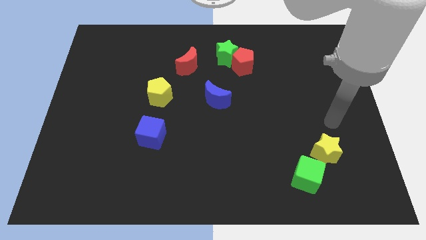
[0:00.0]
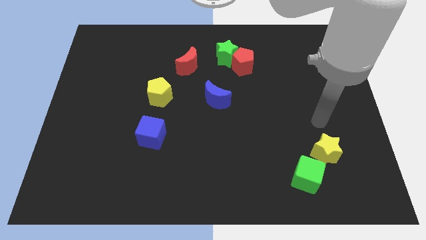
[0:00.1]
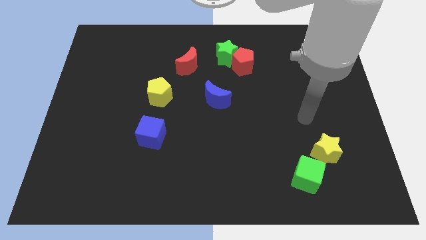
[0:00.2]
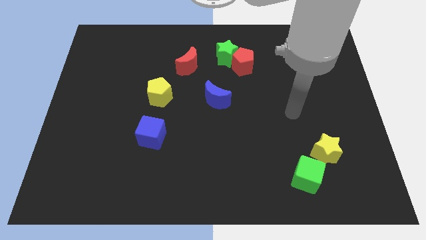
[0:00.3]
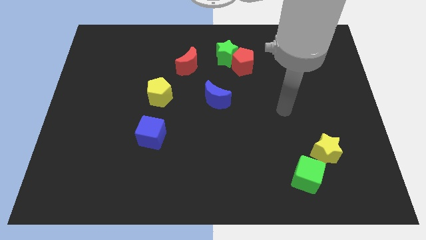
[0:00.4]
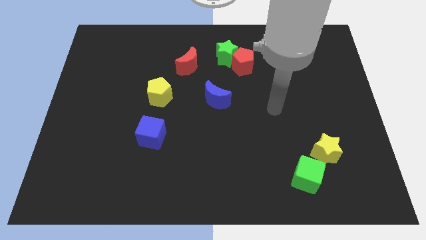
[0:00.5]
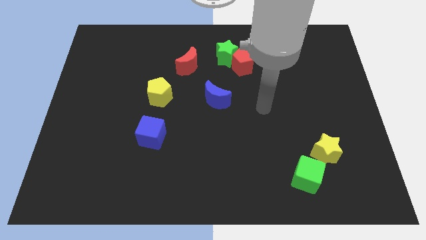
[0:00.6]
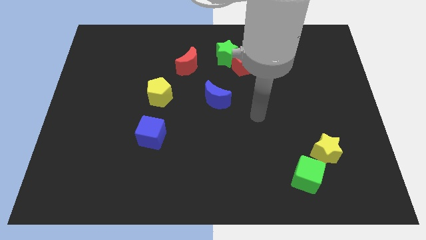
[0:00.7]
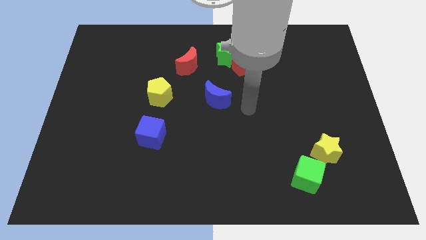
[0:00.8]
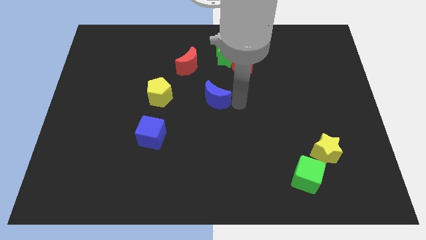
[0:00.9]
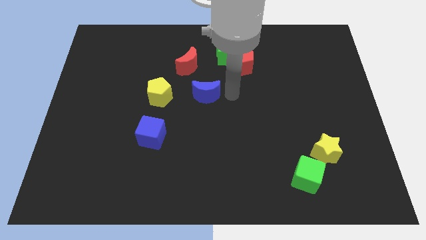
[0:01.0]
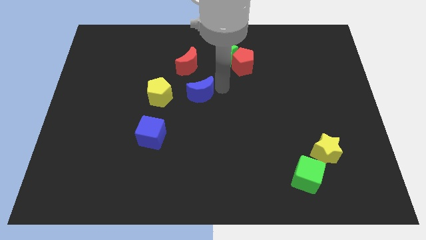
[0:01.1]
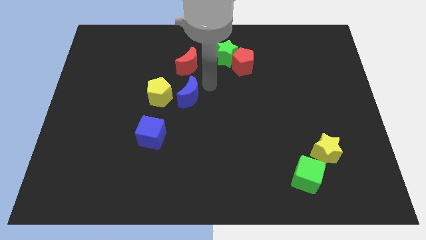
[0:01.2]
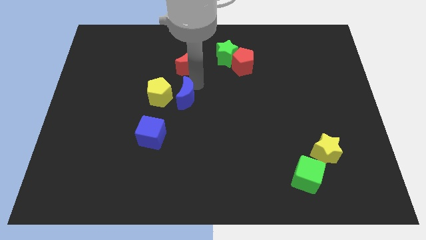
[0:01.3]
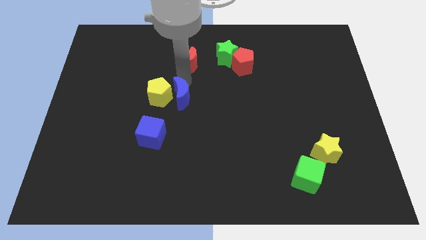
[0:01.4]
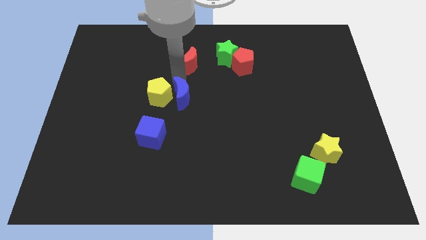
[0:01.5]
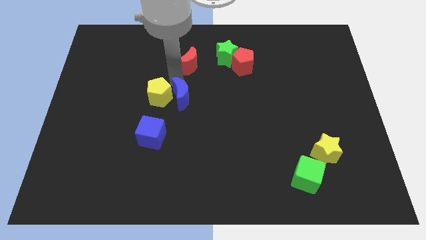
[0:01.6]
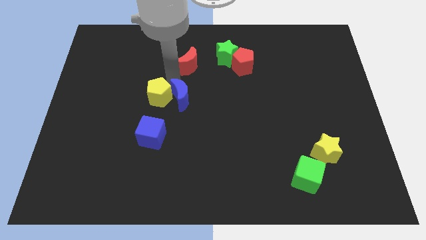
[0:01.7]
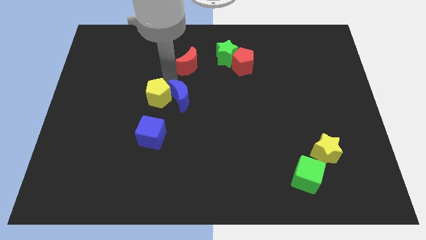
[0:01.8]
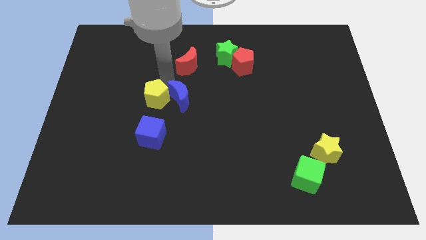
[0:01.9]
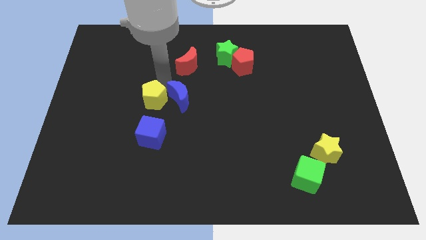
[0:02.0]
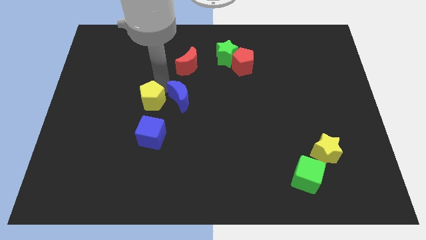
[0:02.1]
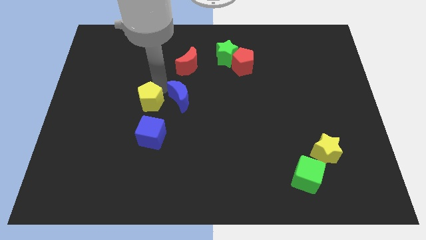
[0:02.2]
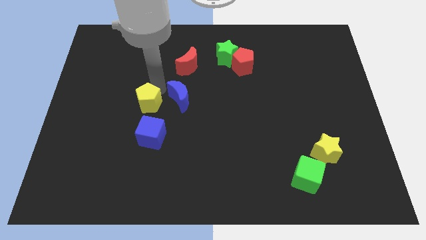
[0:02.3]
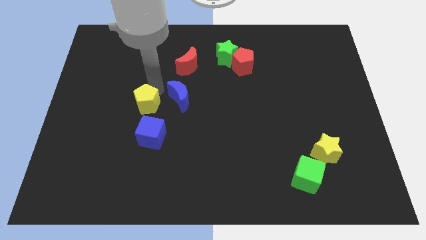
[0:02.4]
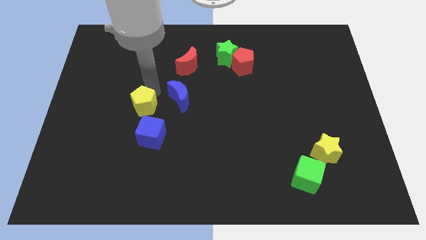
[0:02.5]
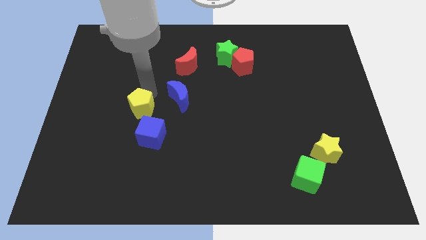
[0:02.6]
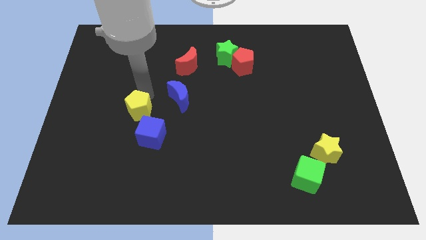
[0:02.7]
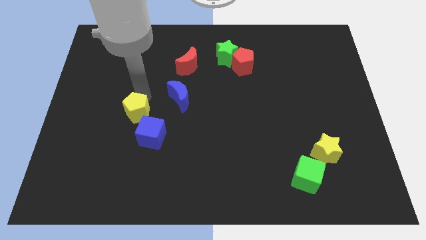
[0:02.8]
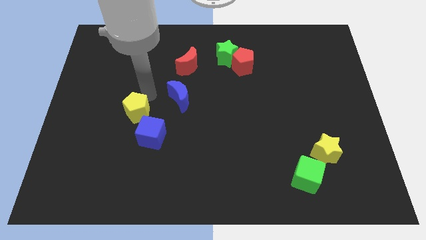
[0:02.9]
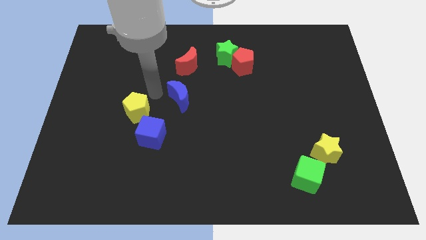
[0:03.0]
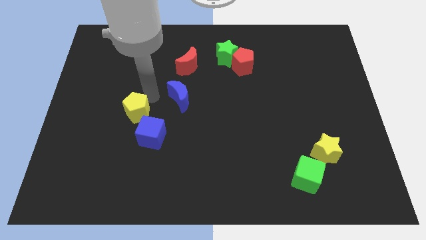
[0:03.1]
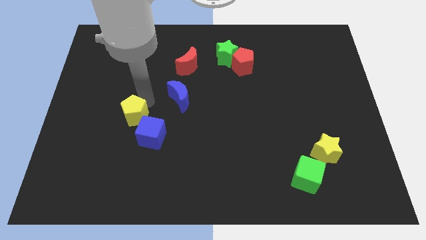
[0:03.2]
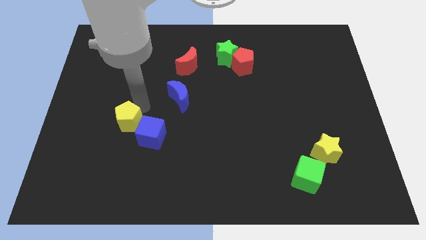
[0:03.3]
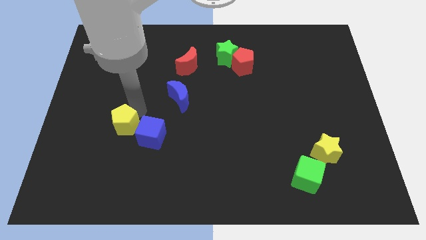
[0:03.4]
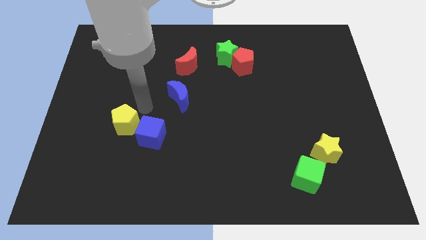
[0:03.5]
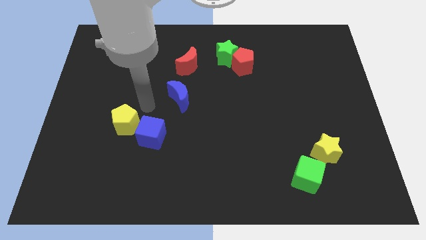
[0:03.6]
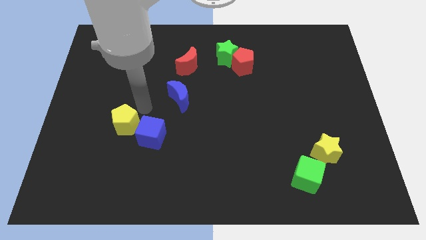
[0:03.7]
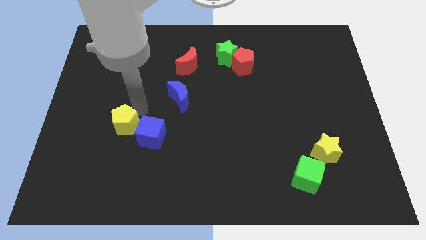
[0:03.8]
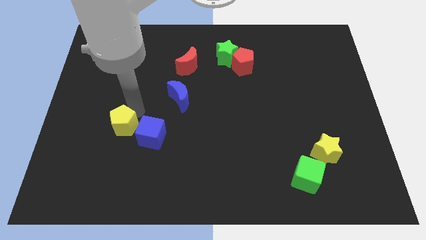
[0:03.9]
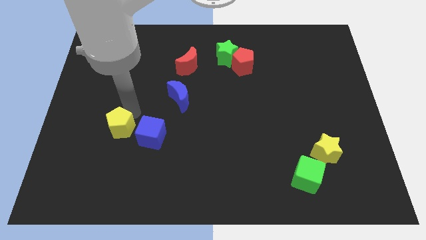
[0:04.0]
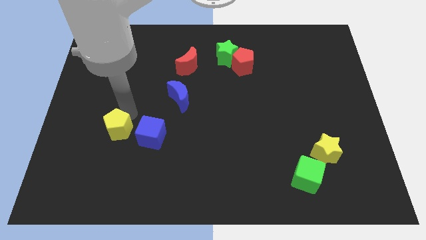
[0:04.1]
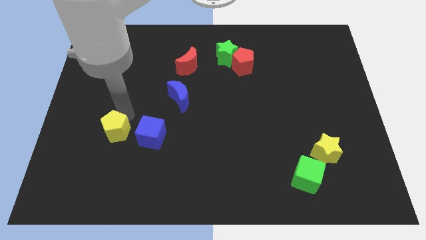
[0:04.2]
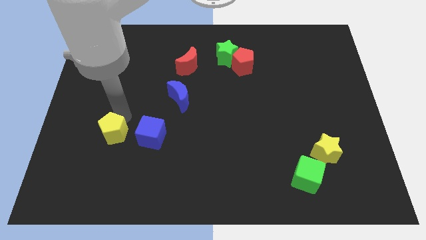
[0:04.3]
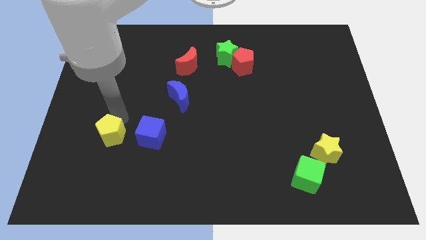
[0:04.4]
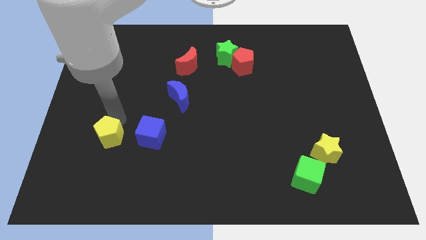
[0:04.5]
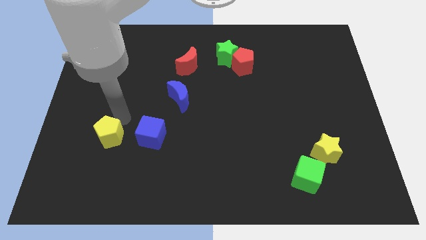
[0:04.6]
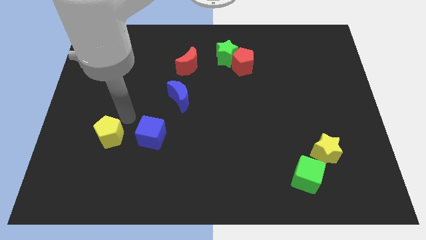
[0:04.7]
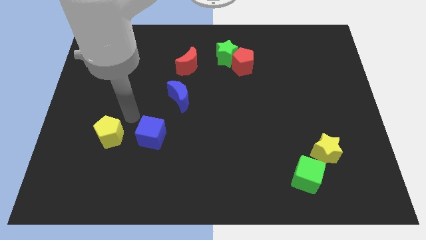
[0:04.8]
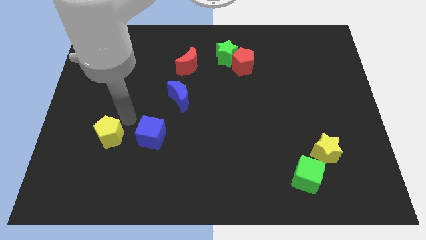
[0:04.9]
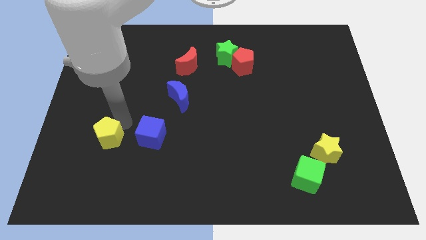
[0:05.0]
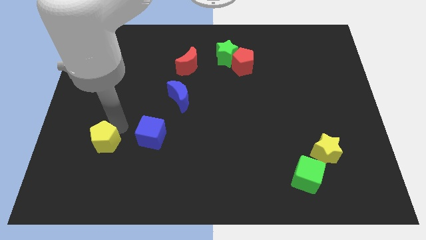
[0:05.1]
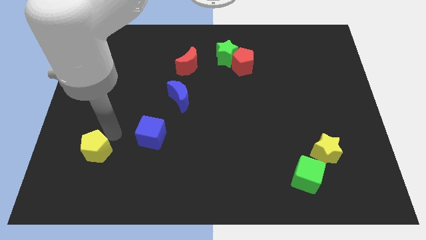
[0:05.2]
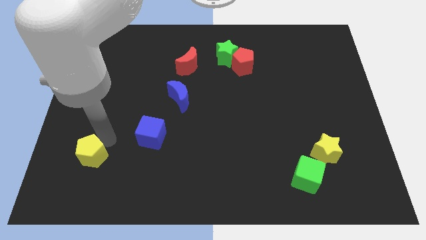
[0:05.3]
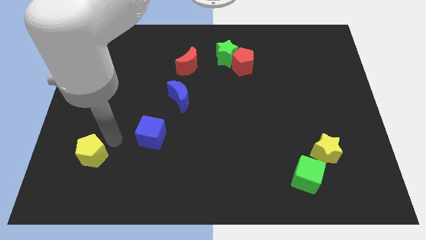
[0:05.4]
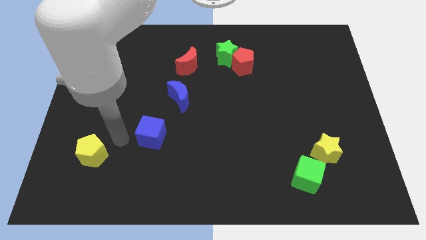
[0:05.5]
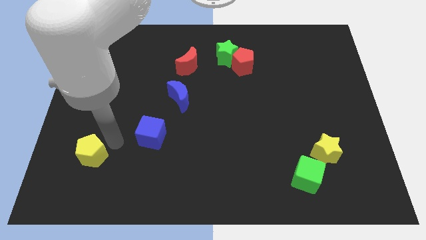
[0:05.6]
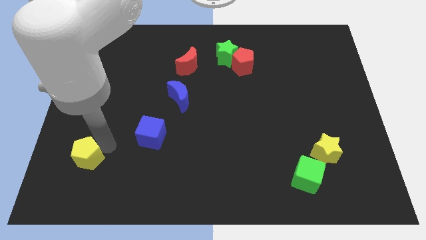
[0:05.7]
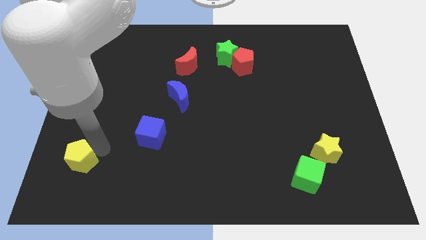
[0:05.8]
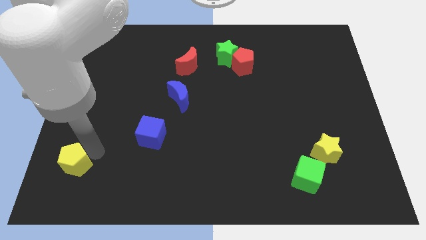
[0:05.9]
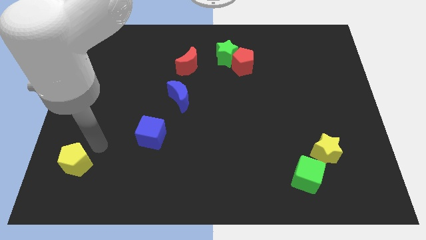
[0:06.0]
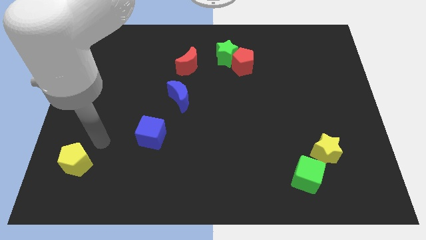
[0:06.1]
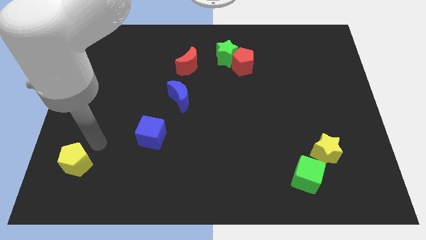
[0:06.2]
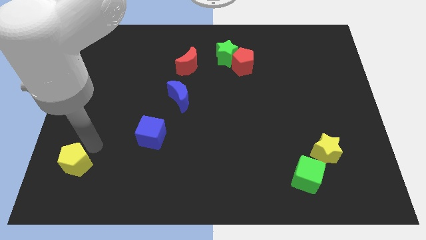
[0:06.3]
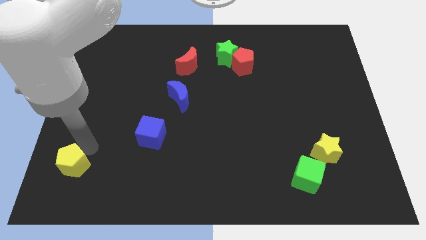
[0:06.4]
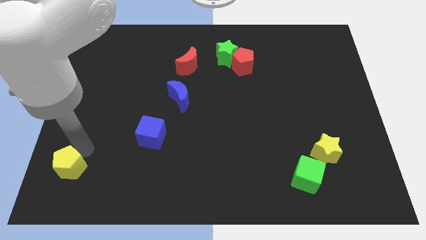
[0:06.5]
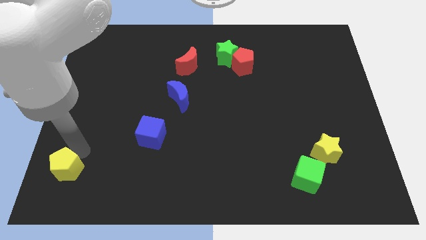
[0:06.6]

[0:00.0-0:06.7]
put the yellow pentagon to the bottom left of the board
